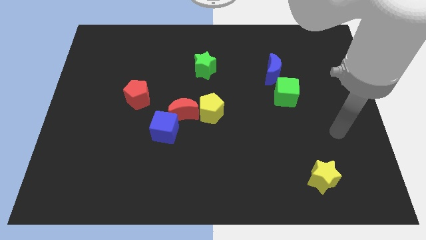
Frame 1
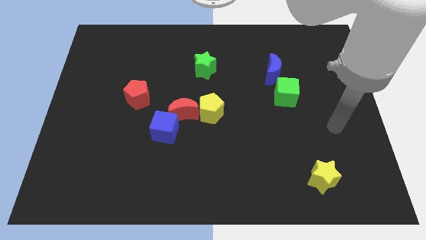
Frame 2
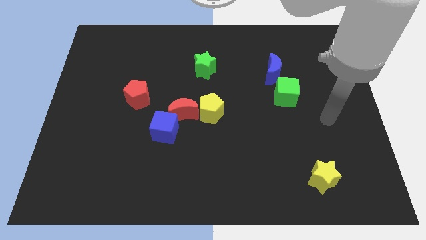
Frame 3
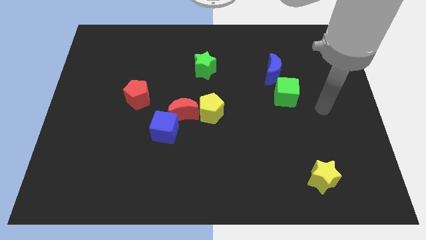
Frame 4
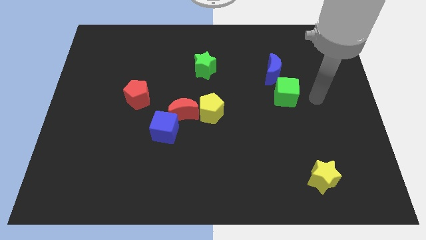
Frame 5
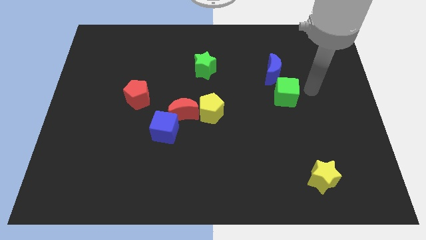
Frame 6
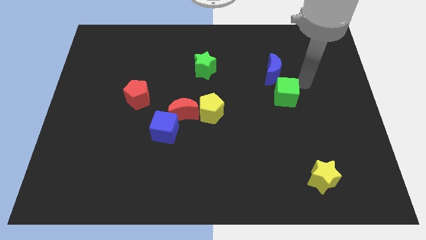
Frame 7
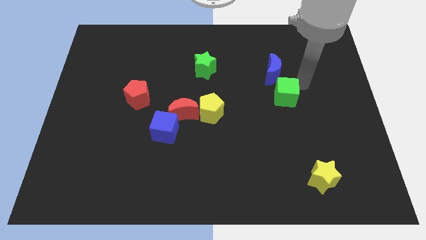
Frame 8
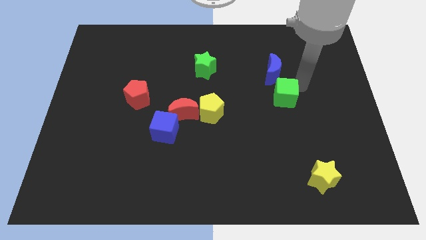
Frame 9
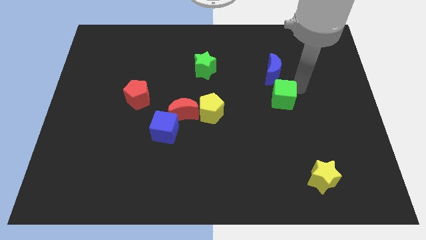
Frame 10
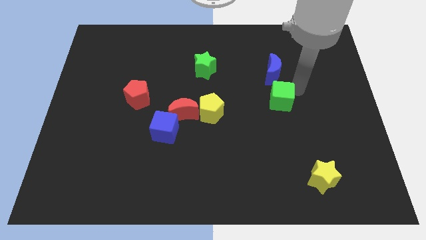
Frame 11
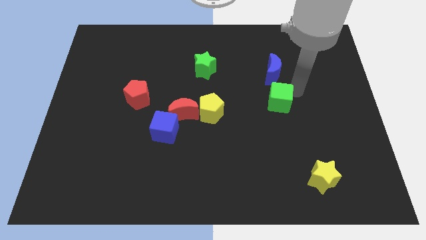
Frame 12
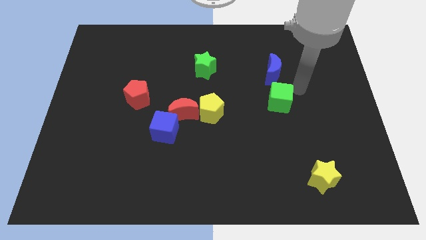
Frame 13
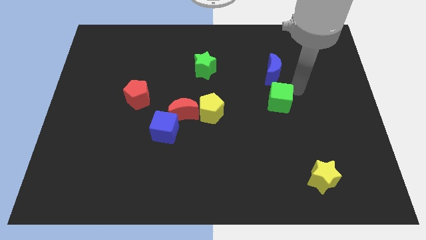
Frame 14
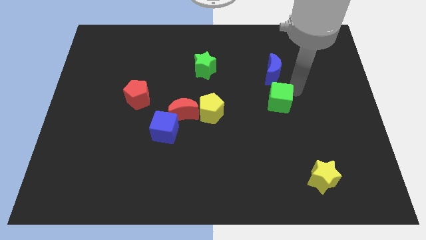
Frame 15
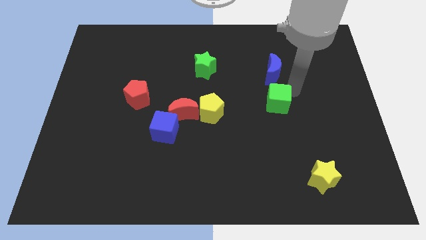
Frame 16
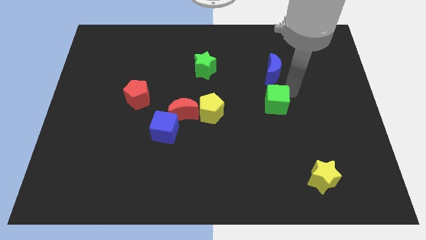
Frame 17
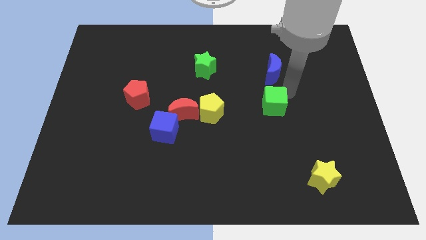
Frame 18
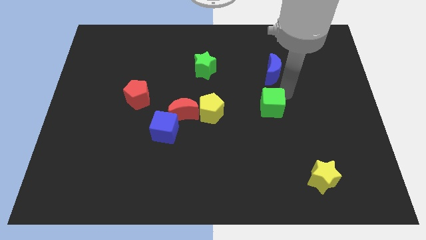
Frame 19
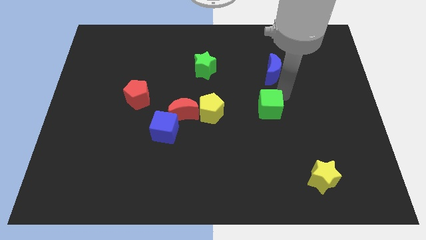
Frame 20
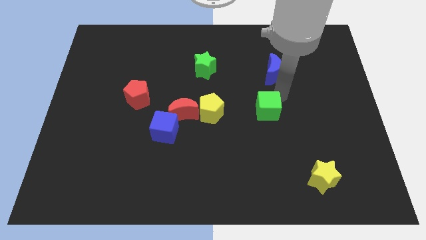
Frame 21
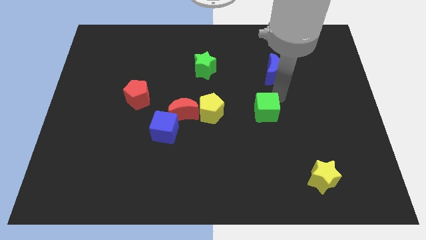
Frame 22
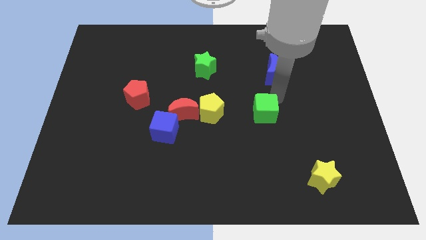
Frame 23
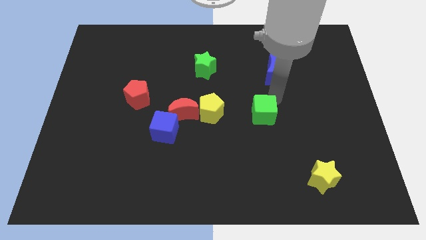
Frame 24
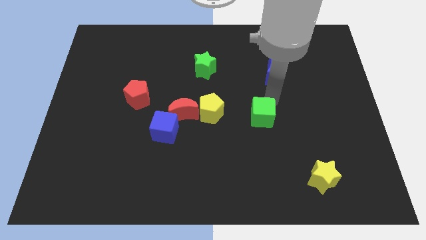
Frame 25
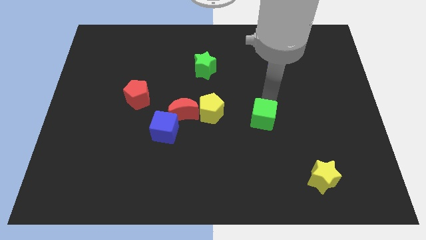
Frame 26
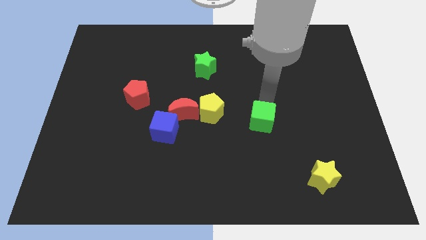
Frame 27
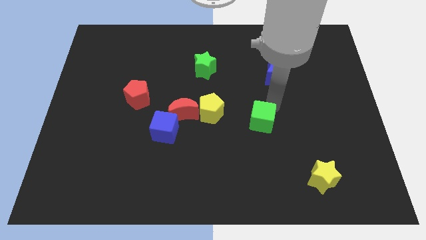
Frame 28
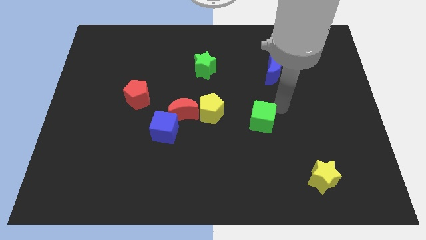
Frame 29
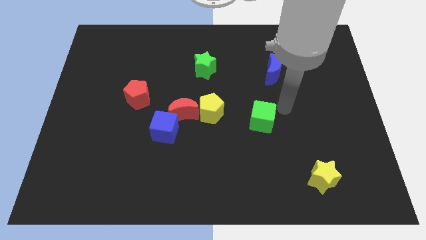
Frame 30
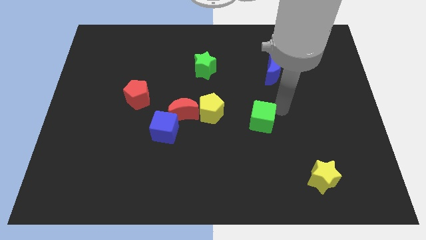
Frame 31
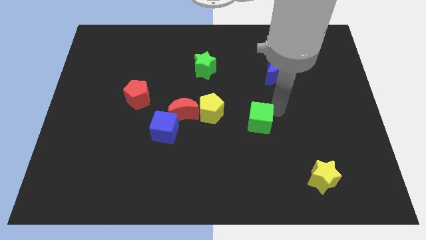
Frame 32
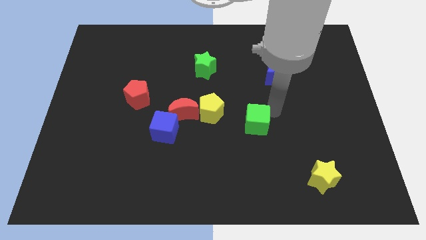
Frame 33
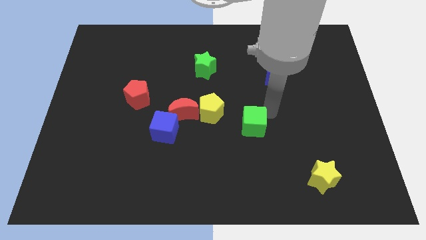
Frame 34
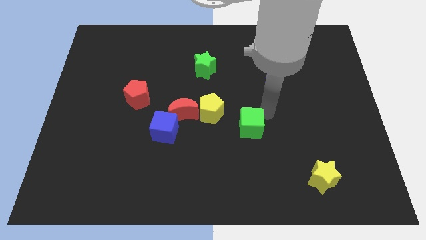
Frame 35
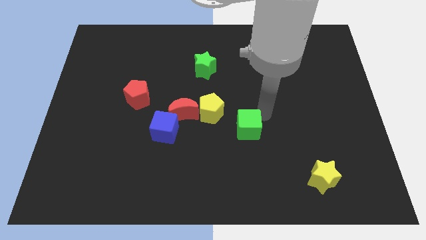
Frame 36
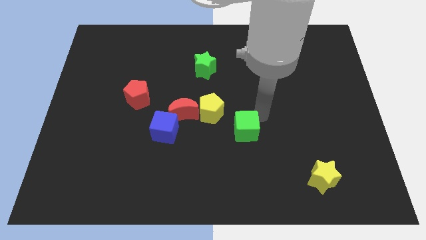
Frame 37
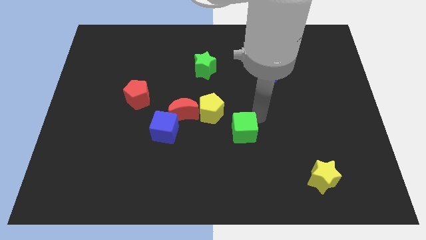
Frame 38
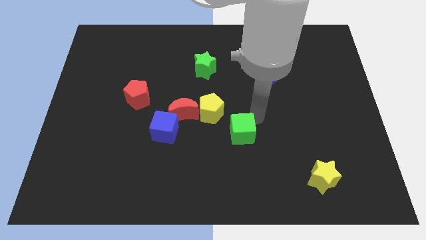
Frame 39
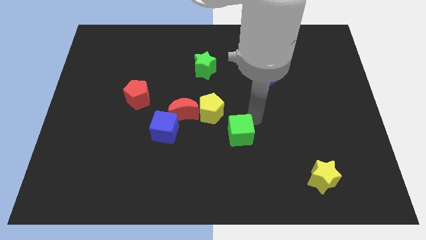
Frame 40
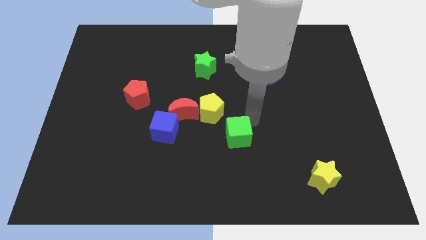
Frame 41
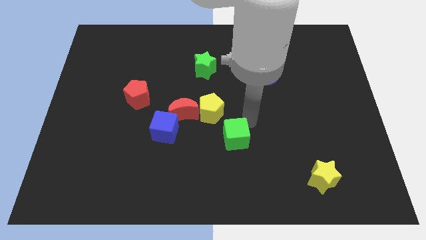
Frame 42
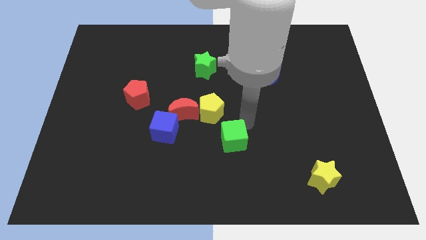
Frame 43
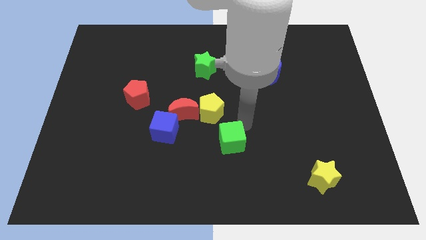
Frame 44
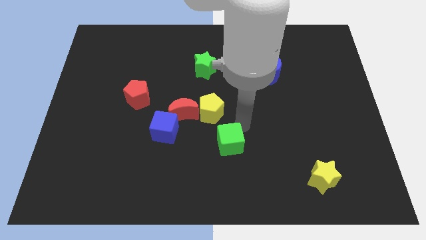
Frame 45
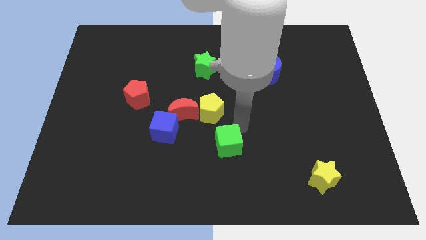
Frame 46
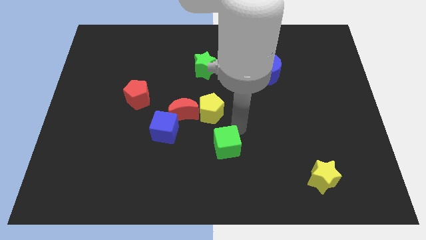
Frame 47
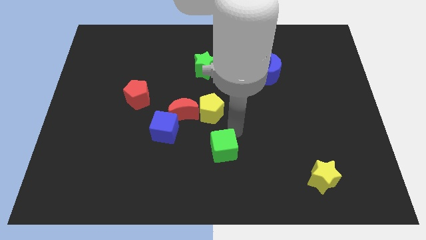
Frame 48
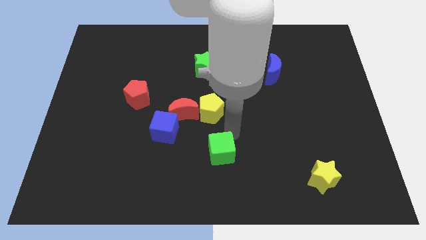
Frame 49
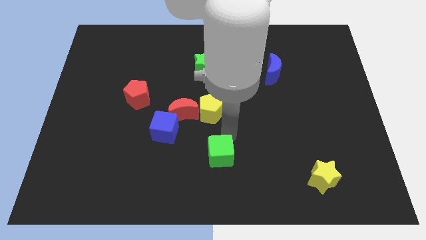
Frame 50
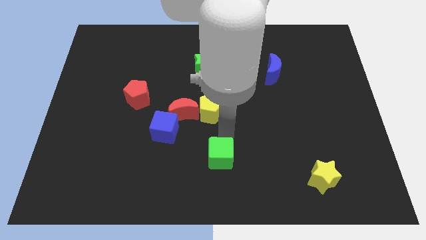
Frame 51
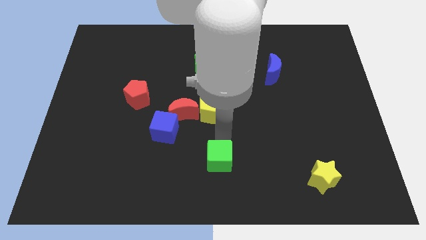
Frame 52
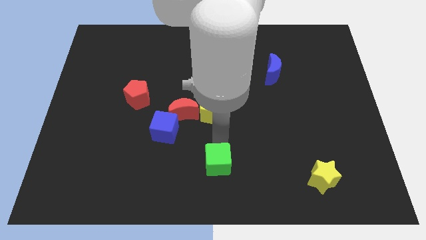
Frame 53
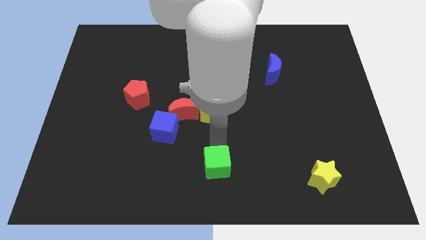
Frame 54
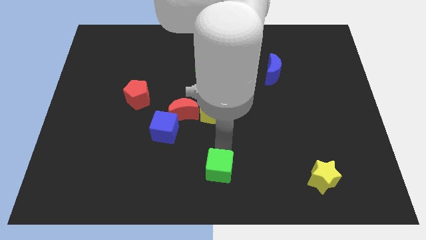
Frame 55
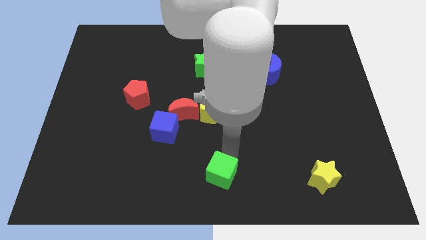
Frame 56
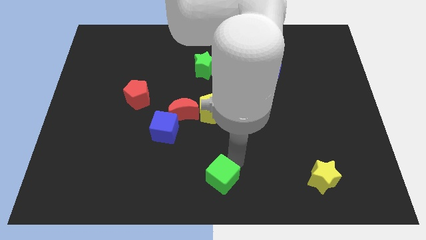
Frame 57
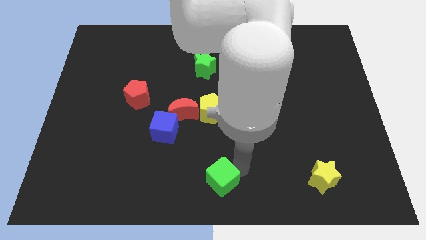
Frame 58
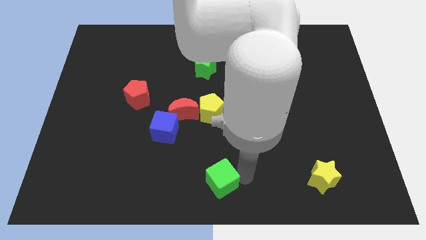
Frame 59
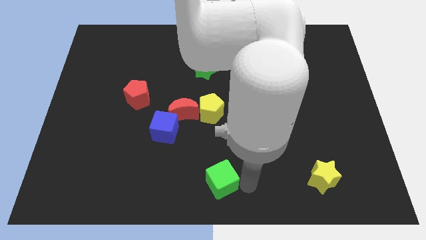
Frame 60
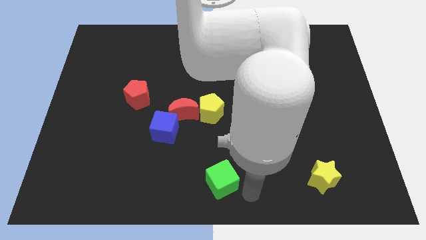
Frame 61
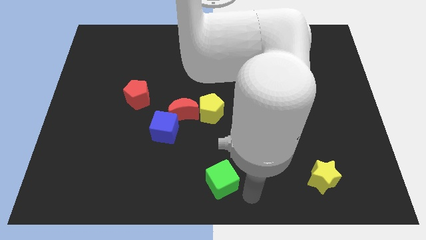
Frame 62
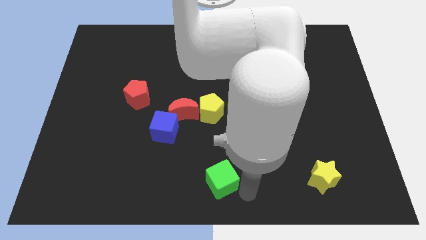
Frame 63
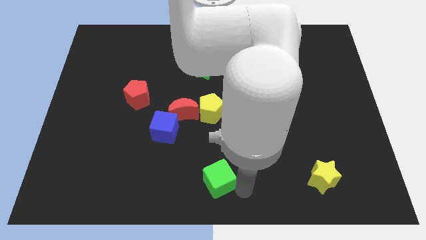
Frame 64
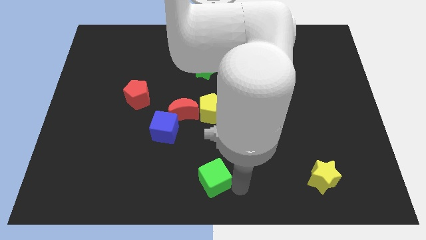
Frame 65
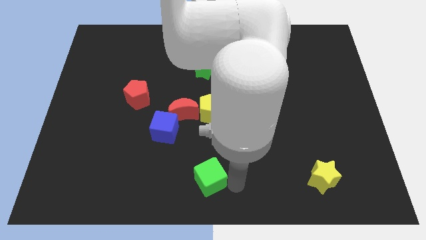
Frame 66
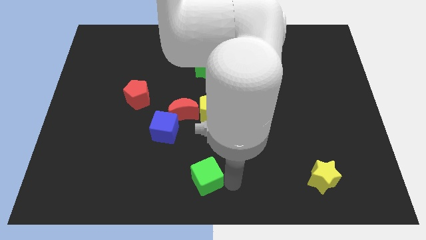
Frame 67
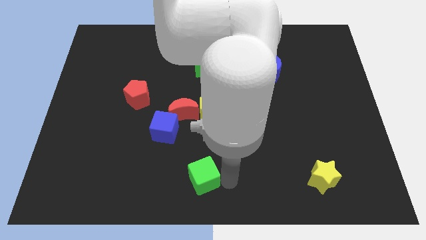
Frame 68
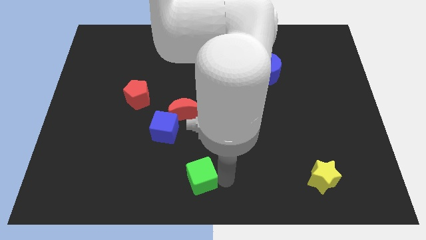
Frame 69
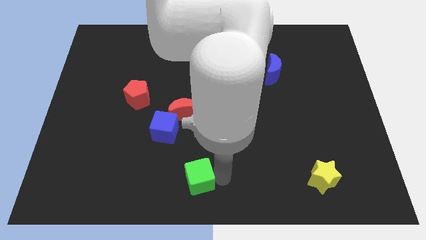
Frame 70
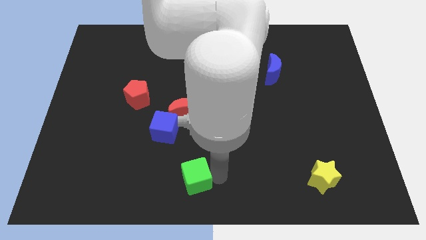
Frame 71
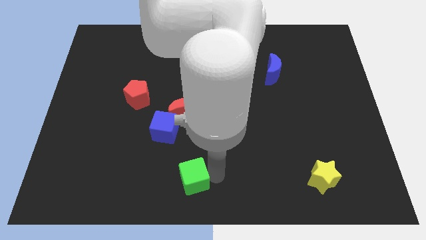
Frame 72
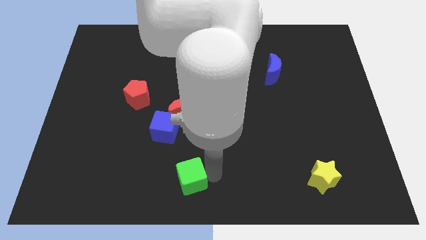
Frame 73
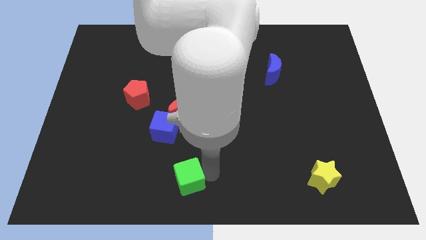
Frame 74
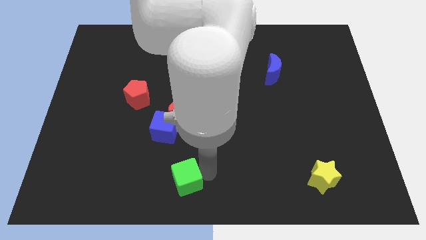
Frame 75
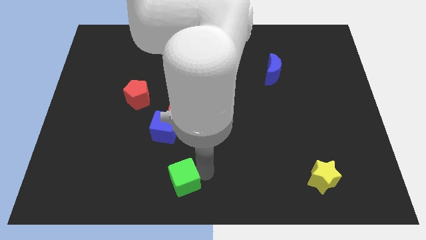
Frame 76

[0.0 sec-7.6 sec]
move the green cube below the blue cube

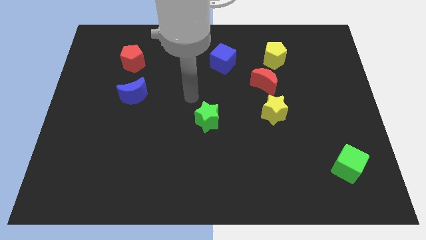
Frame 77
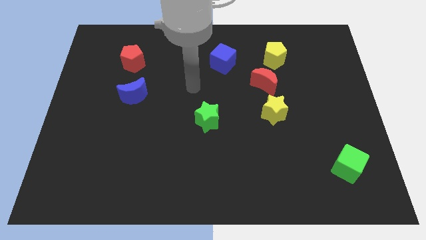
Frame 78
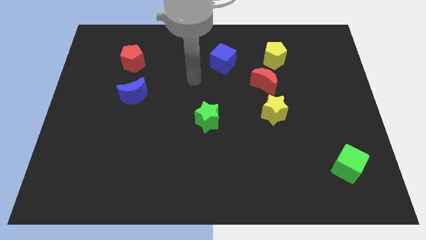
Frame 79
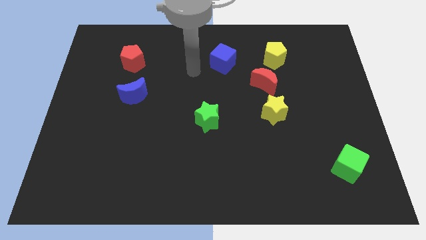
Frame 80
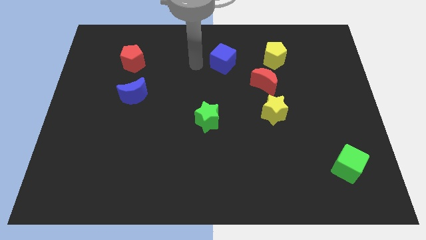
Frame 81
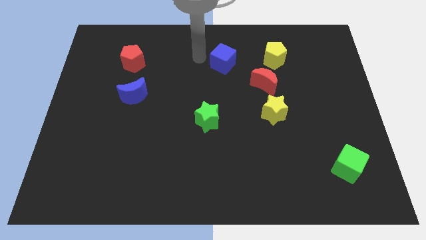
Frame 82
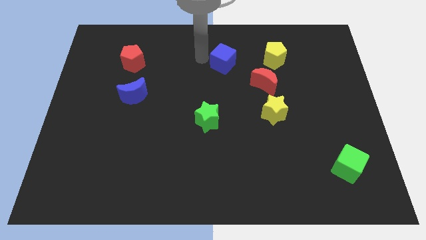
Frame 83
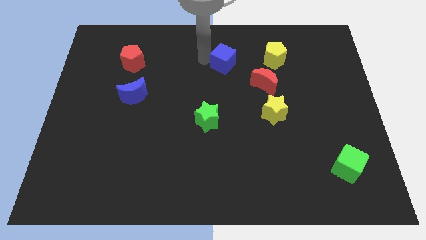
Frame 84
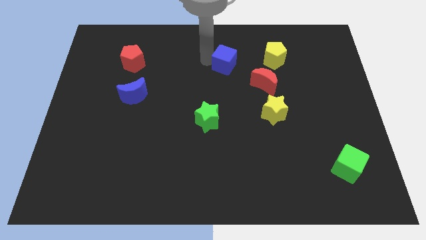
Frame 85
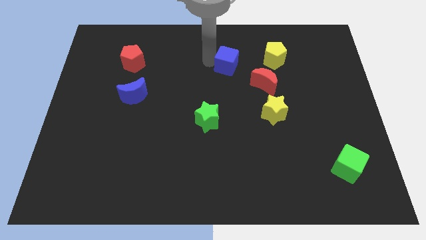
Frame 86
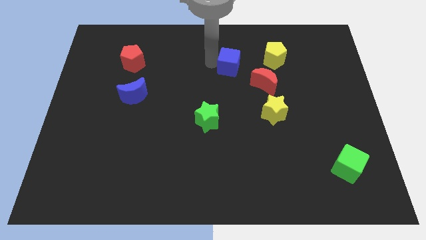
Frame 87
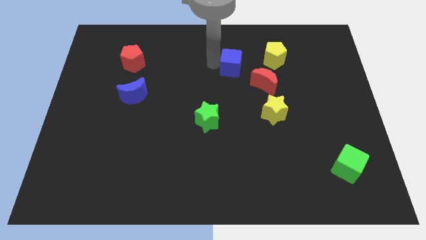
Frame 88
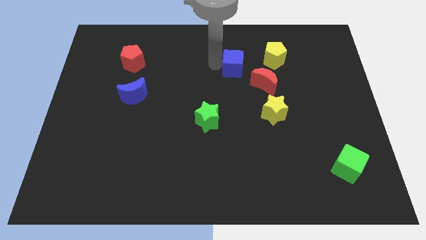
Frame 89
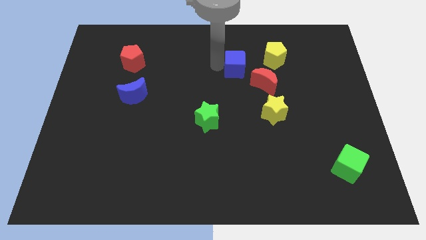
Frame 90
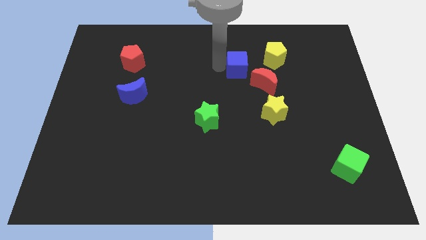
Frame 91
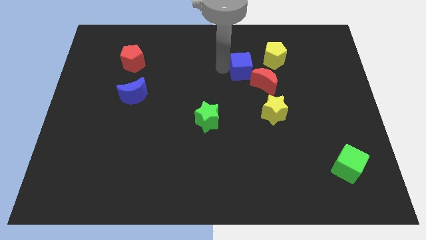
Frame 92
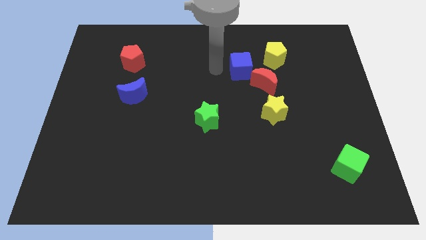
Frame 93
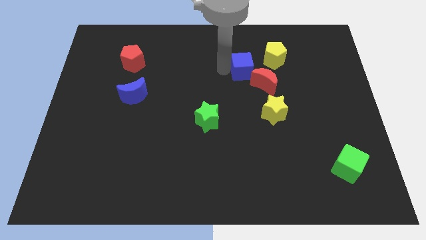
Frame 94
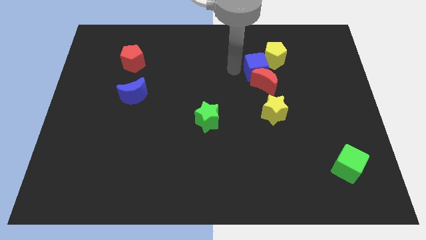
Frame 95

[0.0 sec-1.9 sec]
move the blue cube to the top right of the red moon
